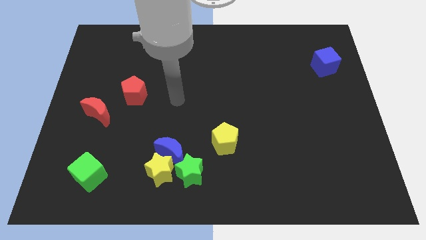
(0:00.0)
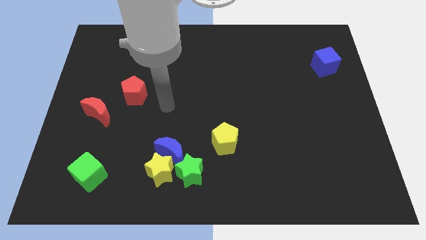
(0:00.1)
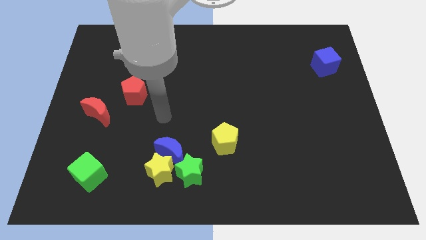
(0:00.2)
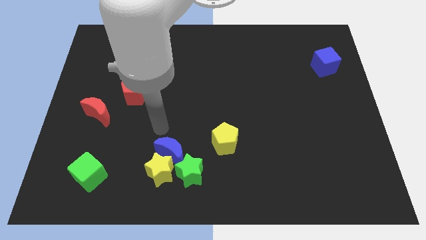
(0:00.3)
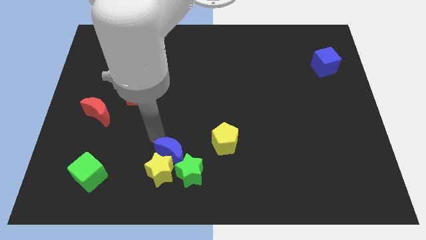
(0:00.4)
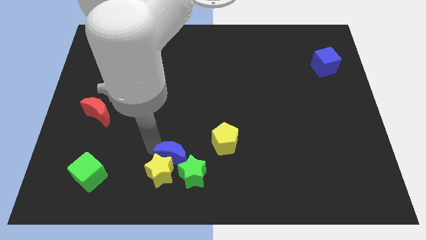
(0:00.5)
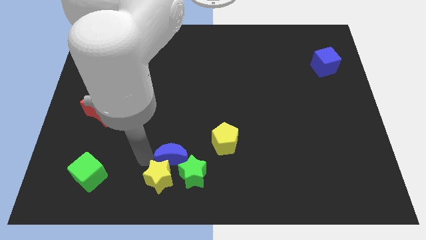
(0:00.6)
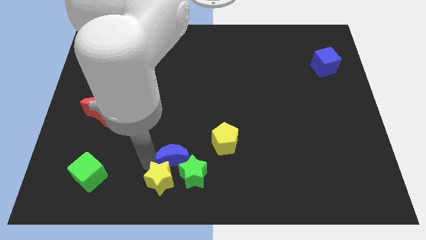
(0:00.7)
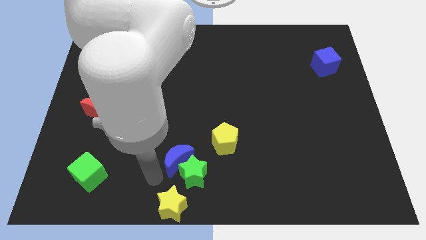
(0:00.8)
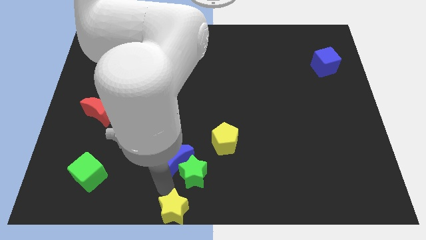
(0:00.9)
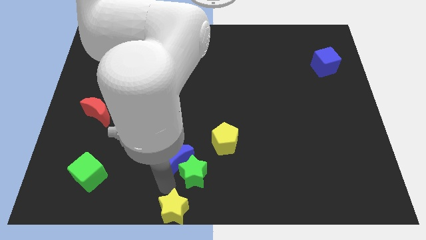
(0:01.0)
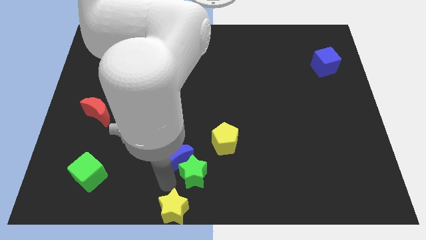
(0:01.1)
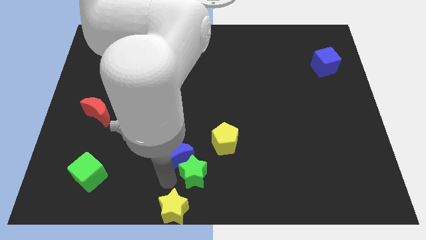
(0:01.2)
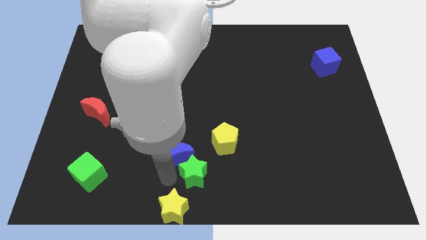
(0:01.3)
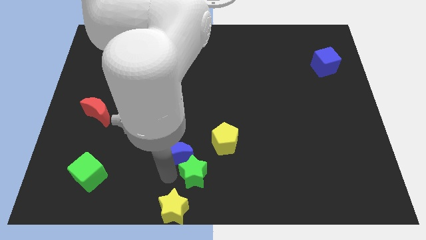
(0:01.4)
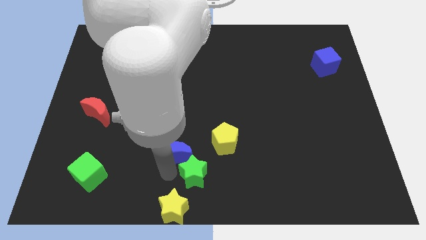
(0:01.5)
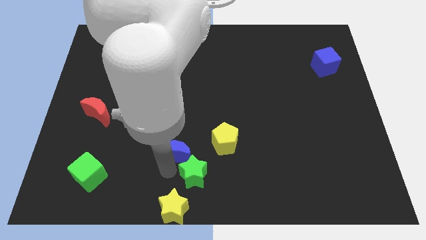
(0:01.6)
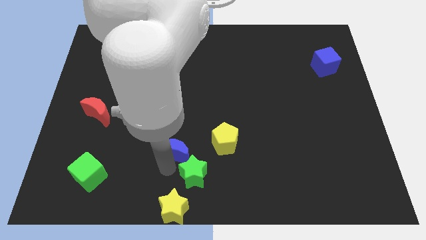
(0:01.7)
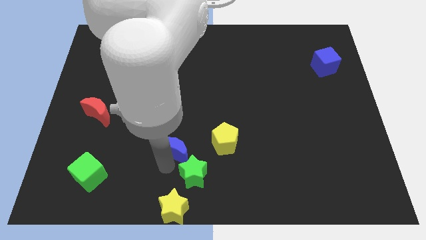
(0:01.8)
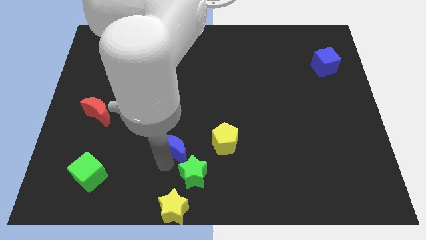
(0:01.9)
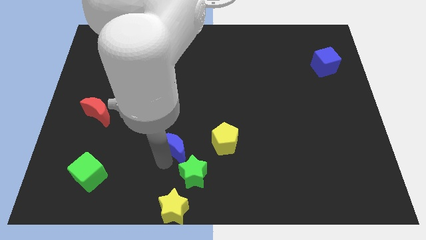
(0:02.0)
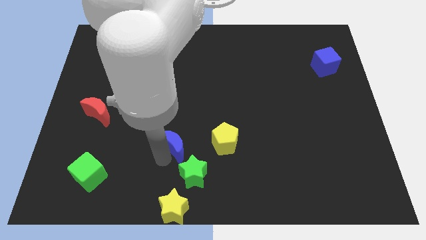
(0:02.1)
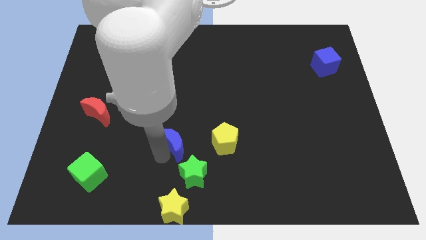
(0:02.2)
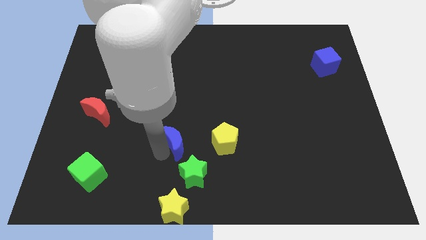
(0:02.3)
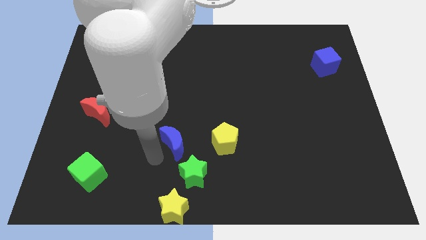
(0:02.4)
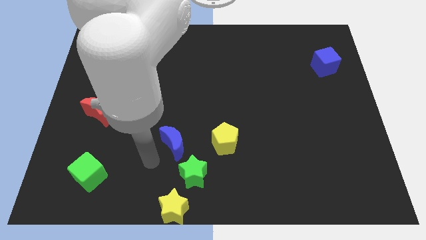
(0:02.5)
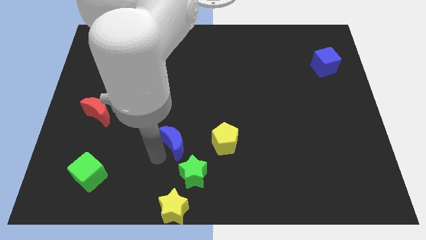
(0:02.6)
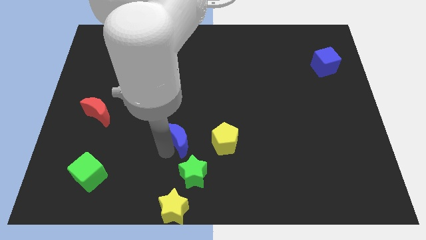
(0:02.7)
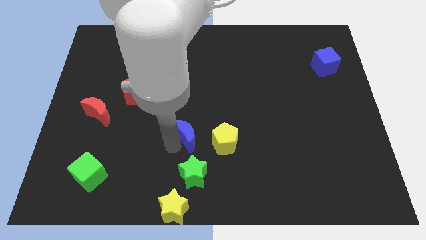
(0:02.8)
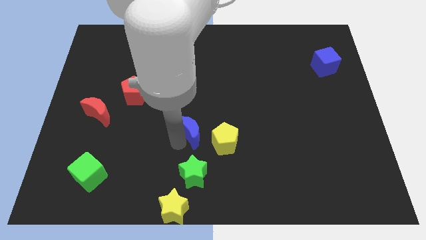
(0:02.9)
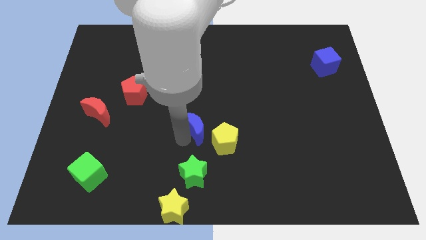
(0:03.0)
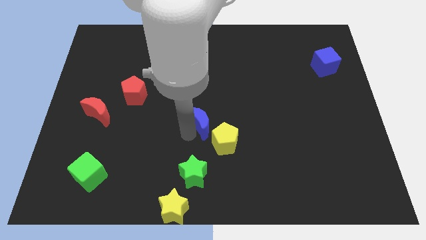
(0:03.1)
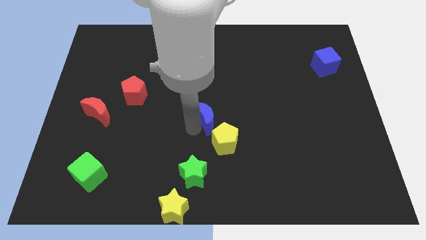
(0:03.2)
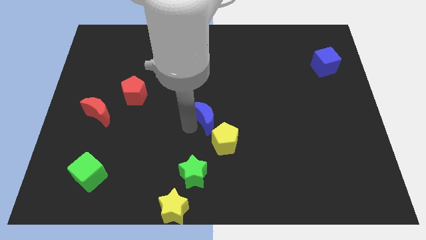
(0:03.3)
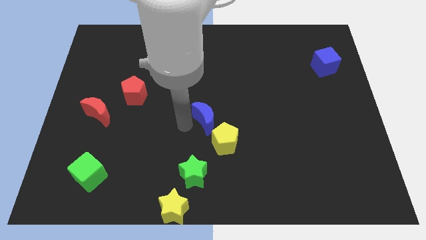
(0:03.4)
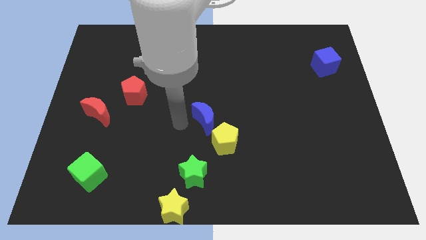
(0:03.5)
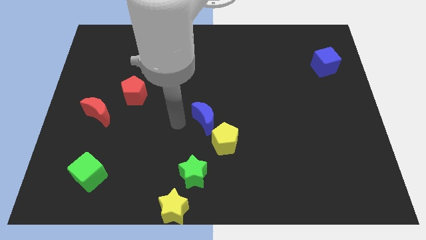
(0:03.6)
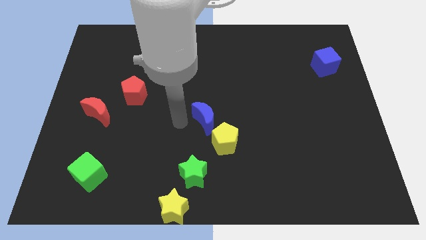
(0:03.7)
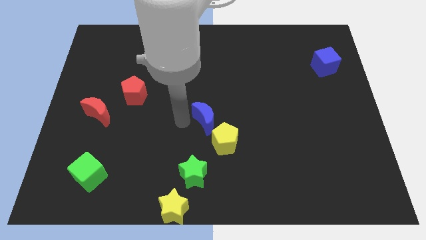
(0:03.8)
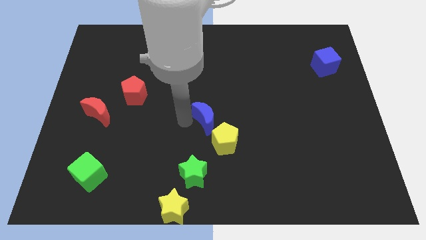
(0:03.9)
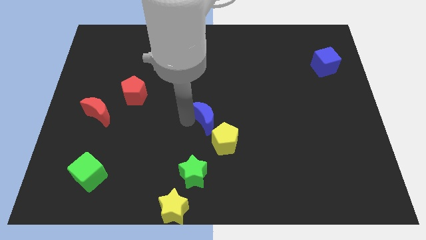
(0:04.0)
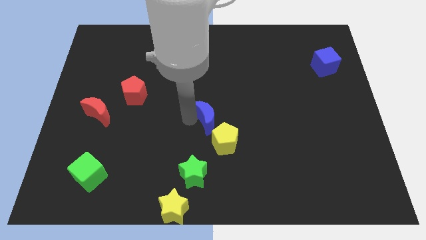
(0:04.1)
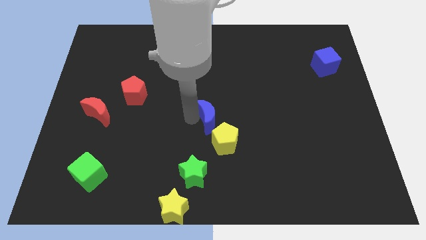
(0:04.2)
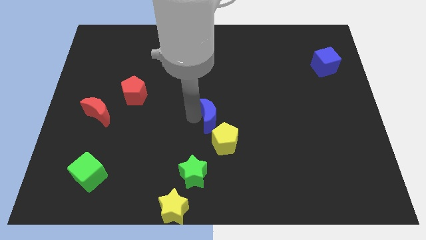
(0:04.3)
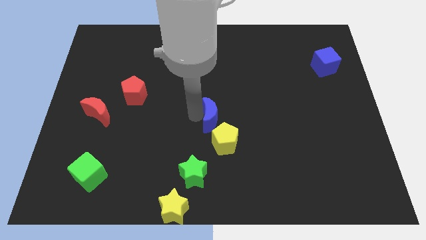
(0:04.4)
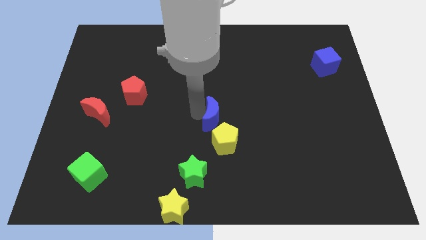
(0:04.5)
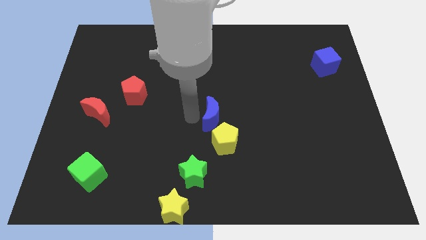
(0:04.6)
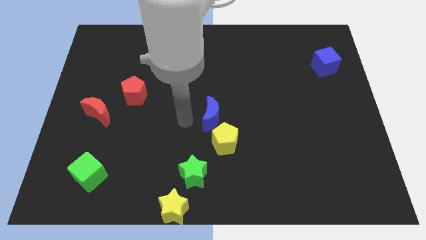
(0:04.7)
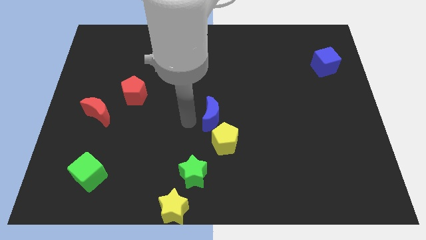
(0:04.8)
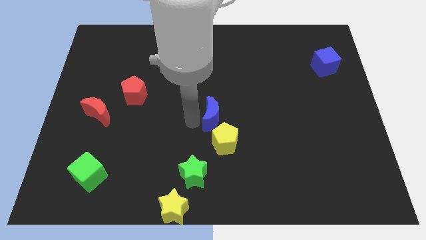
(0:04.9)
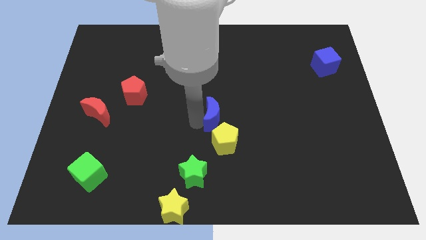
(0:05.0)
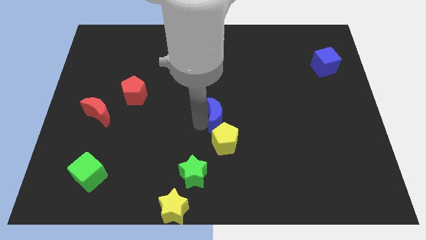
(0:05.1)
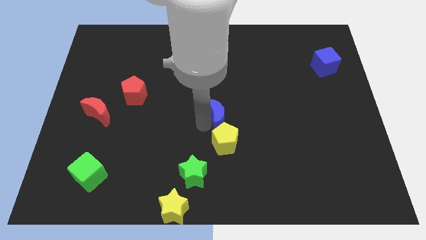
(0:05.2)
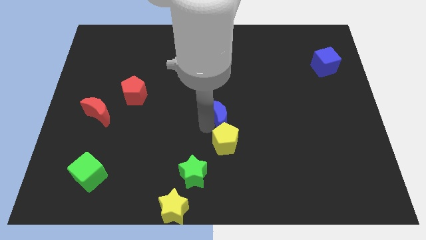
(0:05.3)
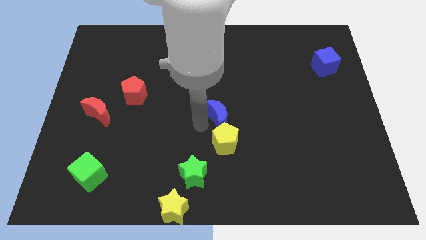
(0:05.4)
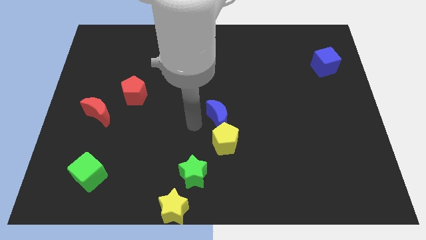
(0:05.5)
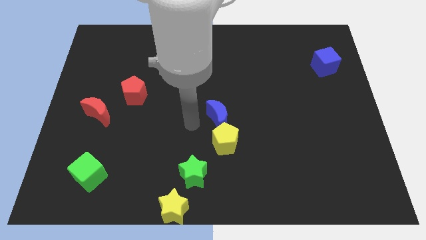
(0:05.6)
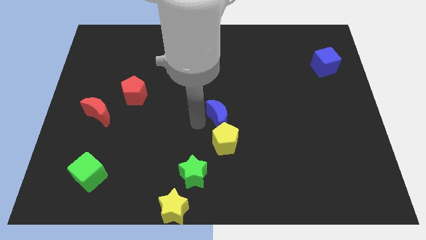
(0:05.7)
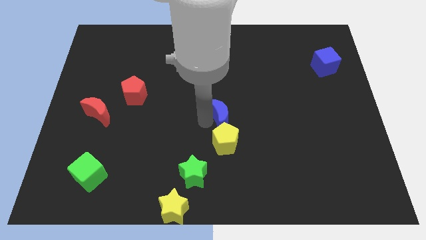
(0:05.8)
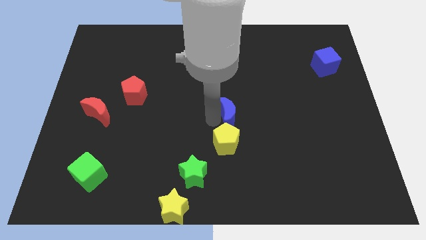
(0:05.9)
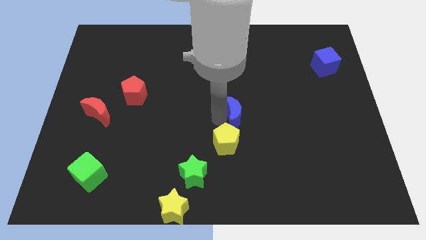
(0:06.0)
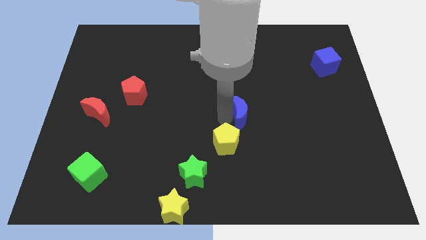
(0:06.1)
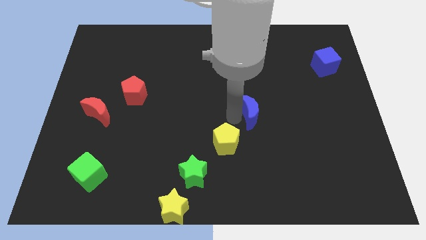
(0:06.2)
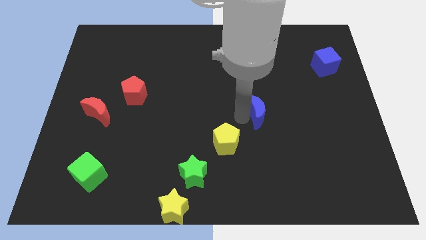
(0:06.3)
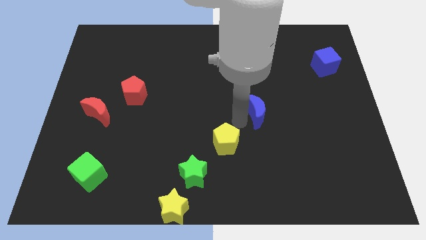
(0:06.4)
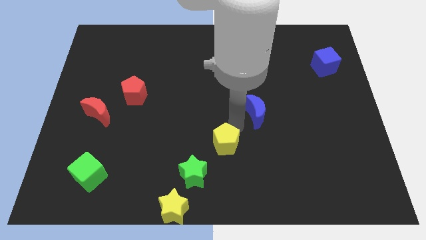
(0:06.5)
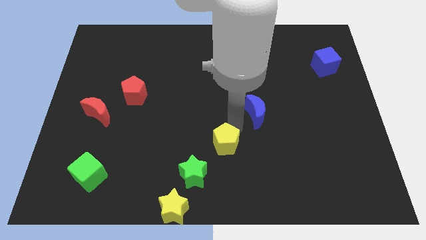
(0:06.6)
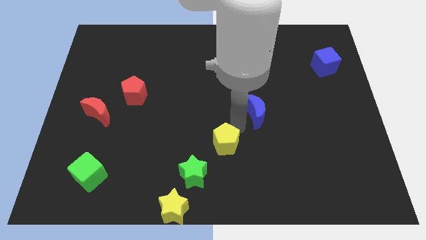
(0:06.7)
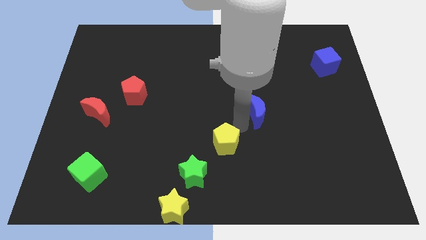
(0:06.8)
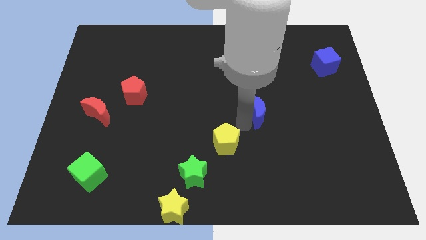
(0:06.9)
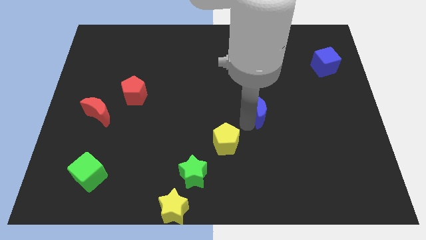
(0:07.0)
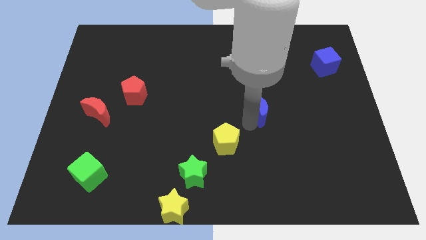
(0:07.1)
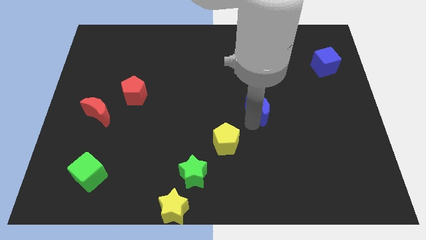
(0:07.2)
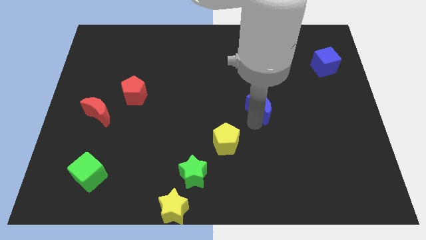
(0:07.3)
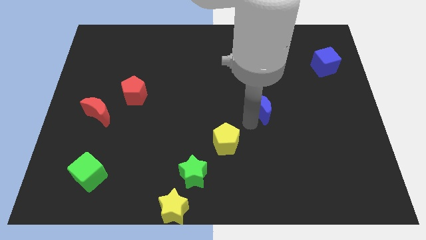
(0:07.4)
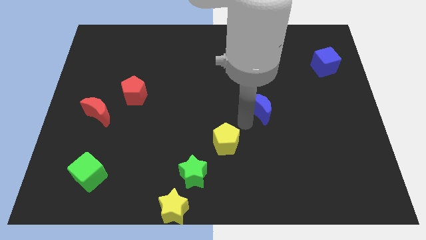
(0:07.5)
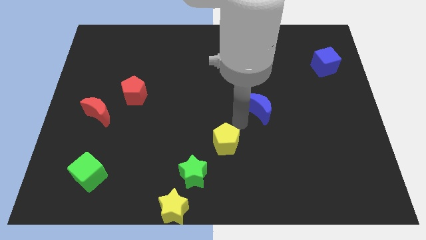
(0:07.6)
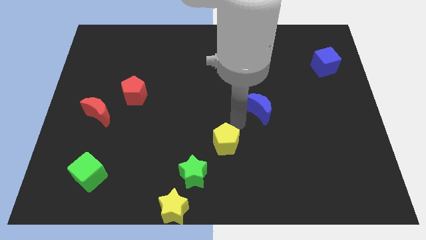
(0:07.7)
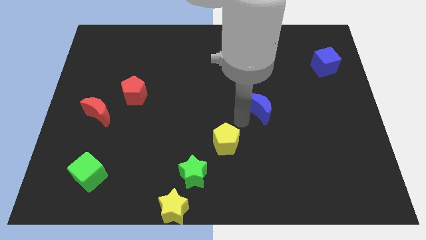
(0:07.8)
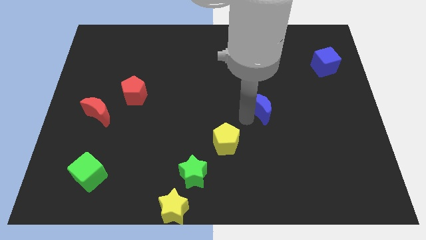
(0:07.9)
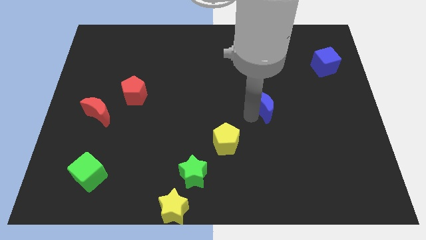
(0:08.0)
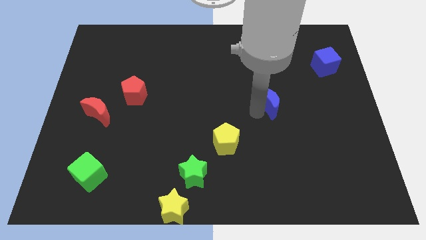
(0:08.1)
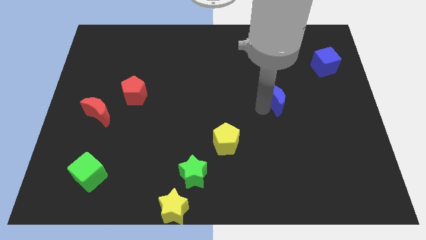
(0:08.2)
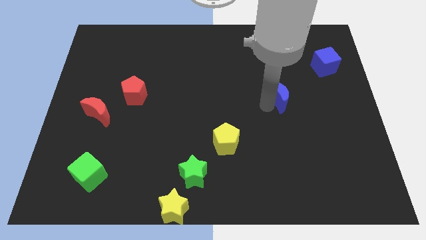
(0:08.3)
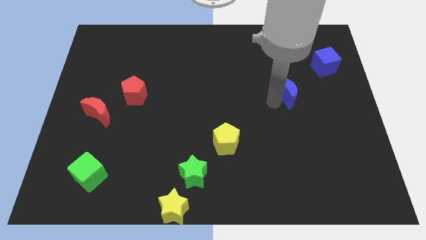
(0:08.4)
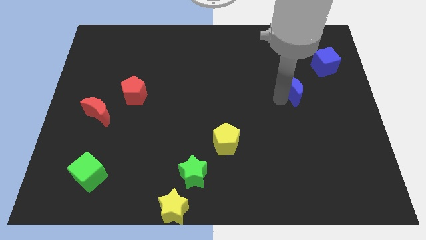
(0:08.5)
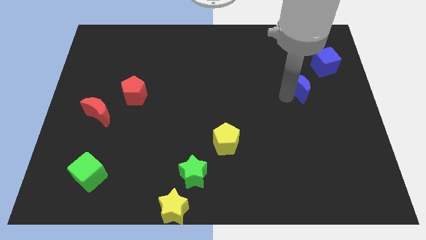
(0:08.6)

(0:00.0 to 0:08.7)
move the blue moon diagonally down and to the left of the blue cube
